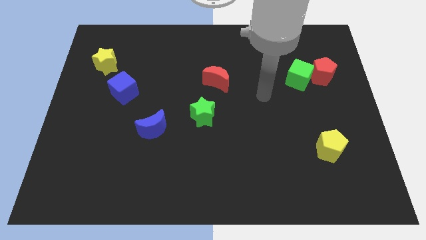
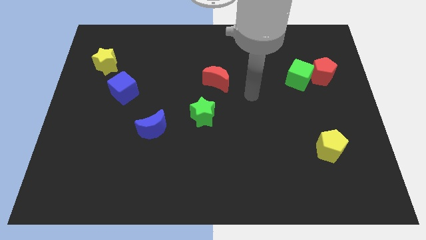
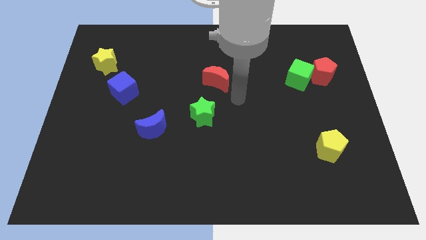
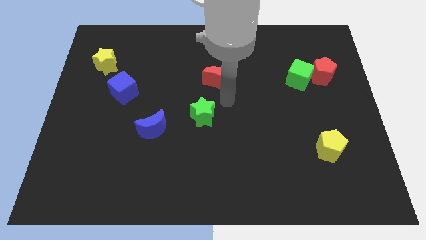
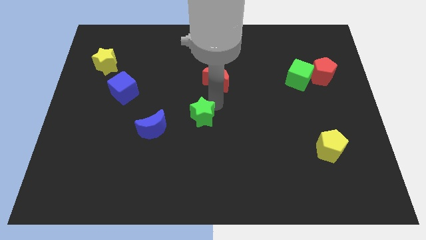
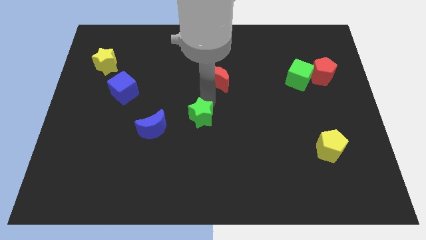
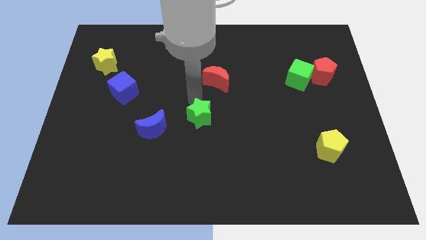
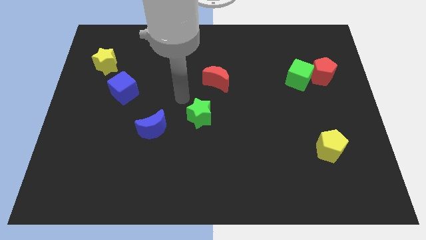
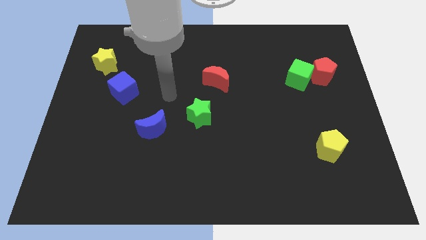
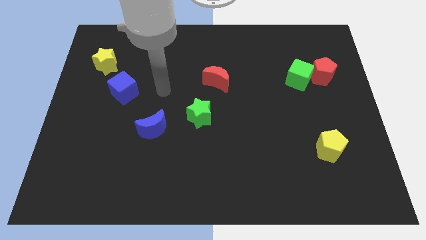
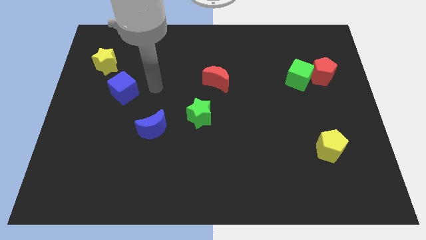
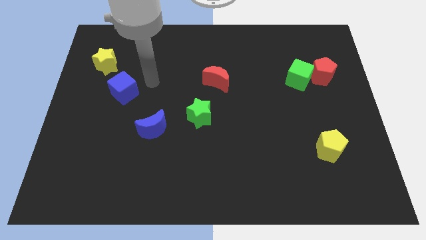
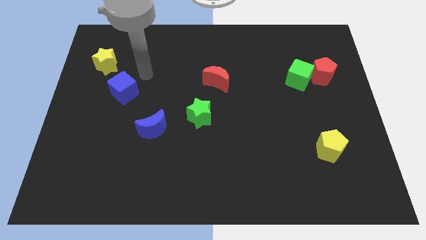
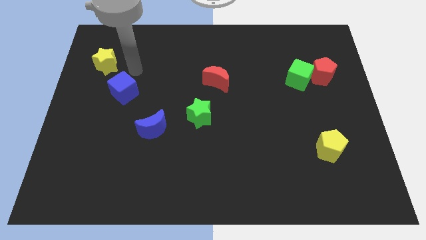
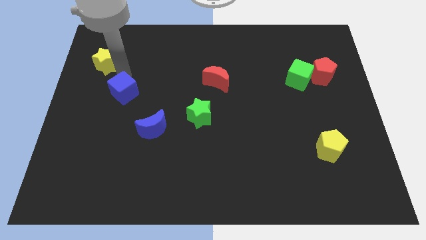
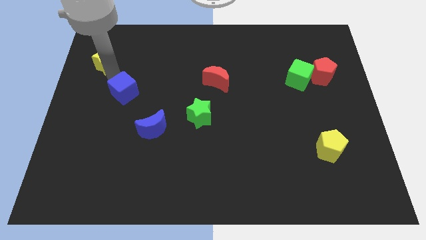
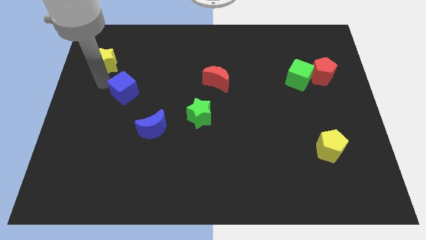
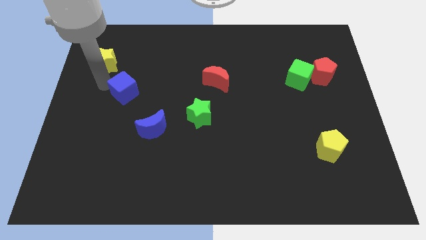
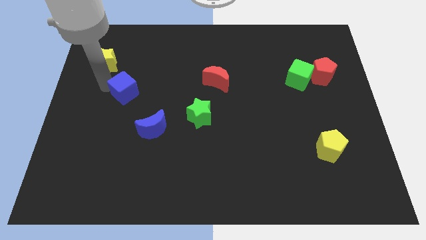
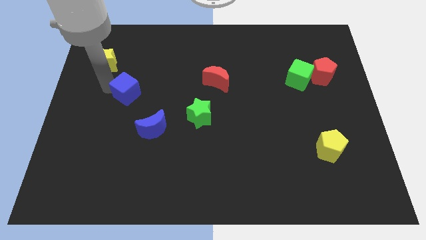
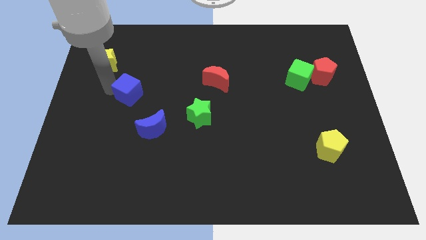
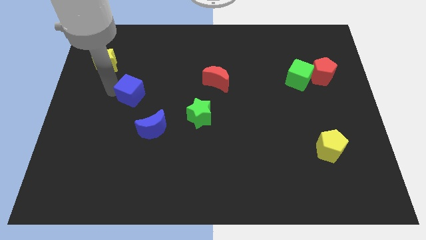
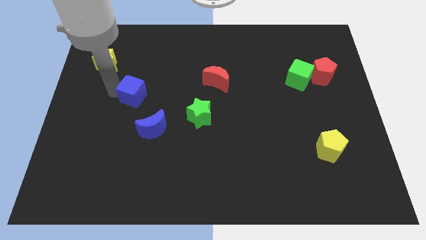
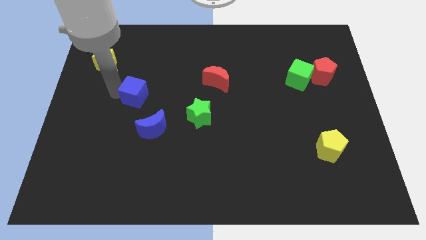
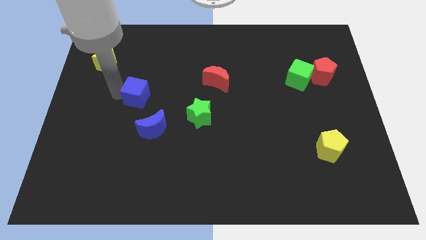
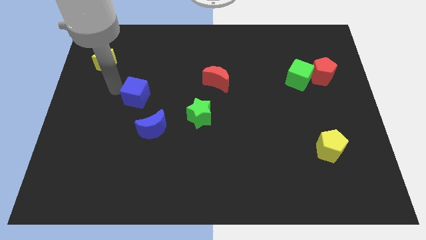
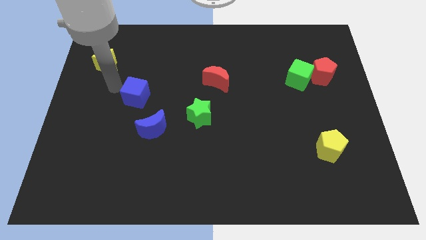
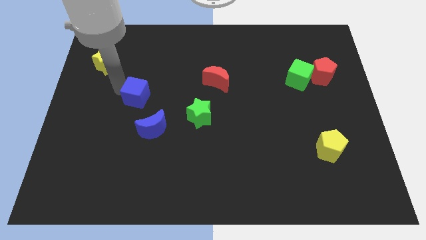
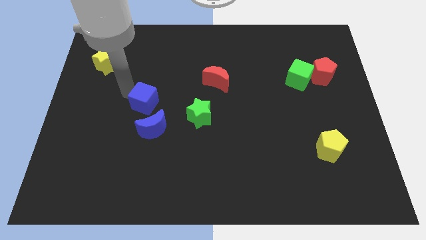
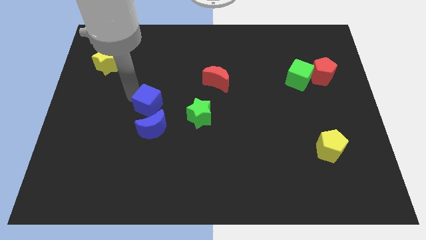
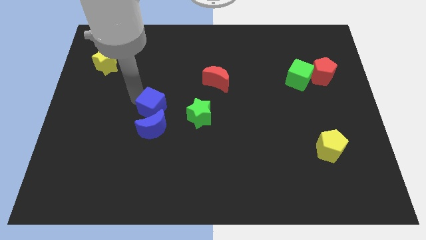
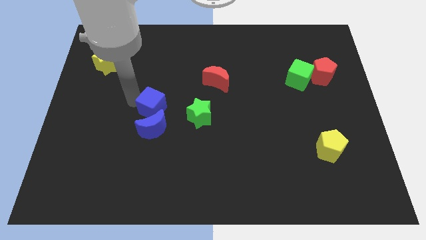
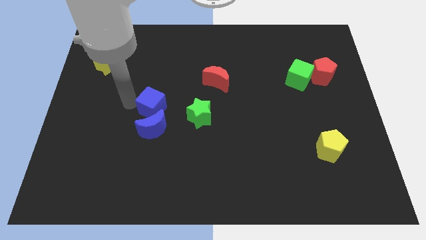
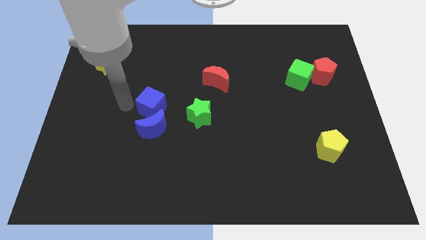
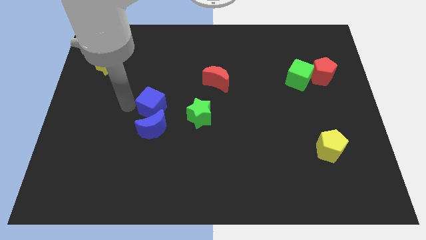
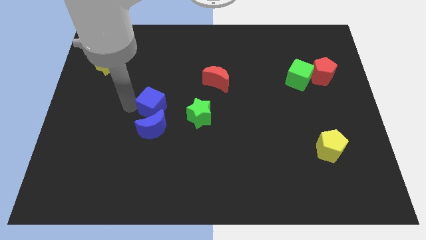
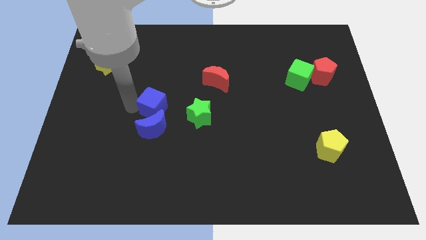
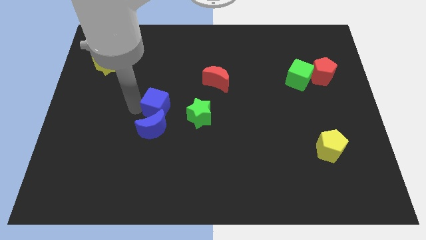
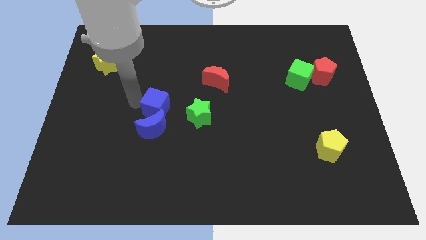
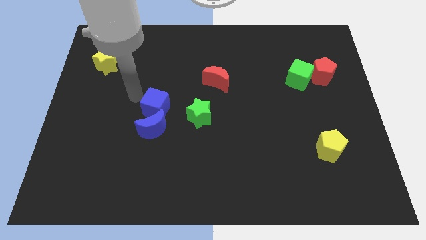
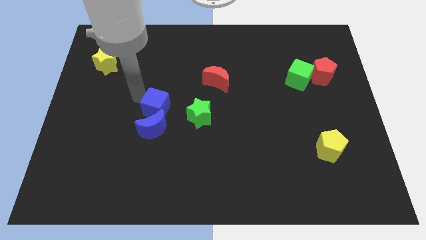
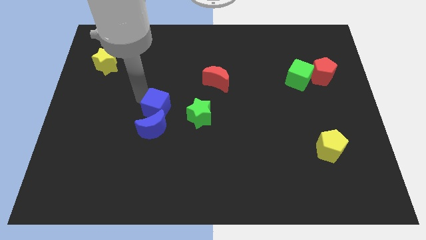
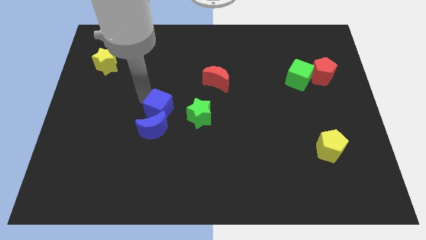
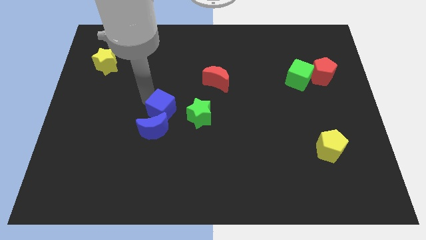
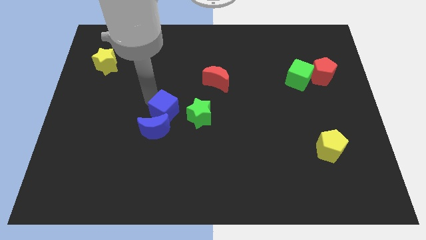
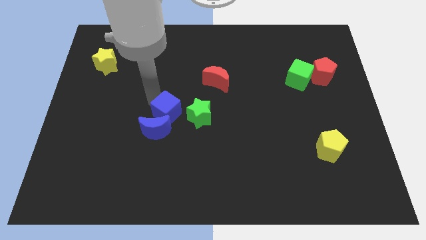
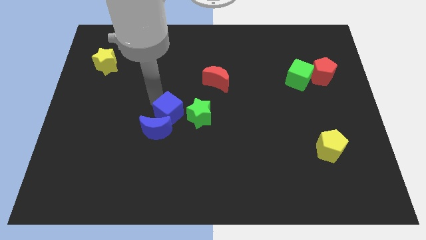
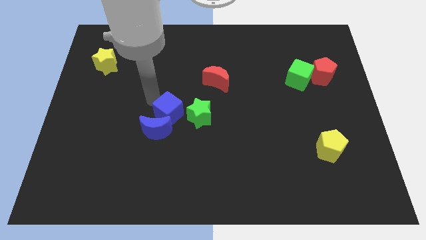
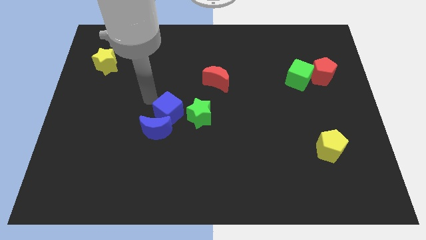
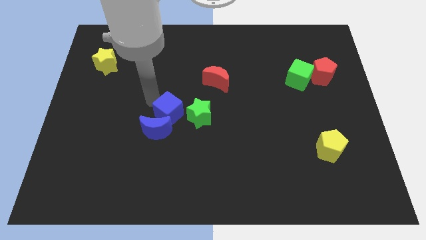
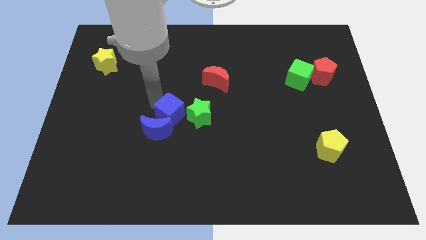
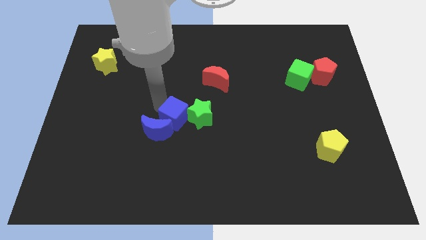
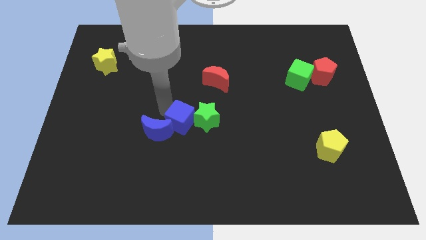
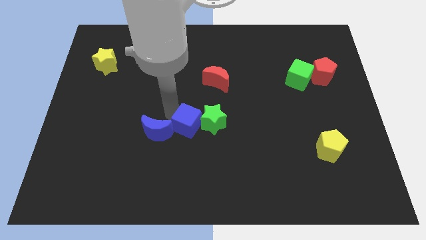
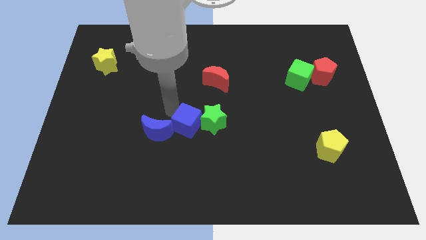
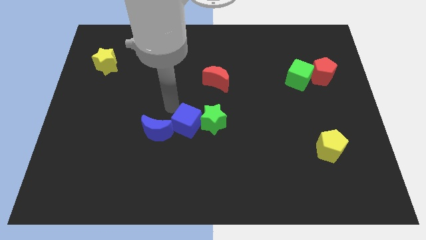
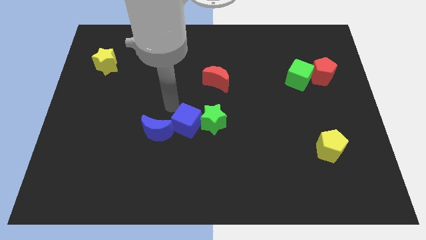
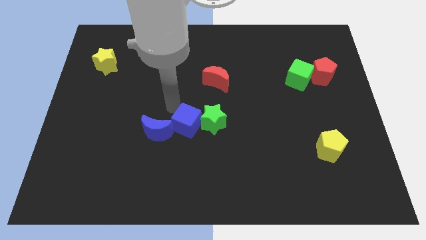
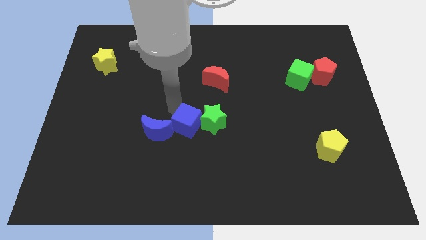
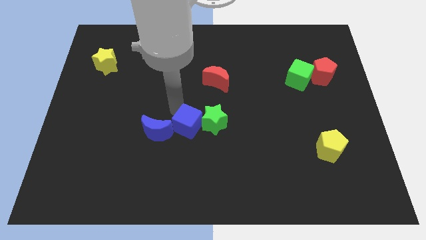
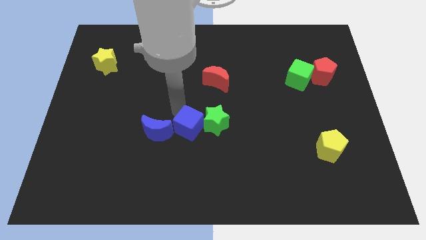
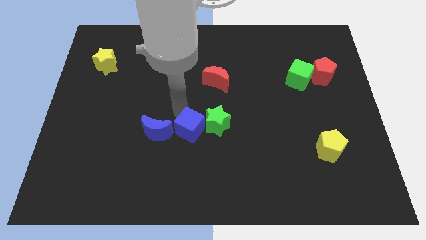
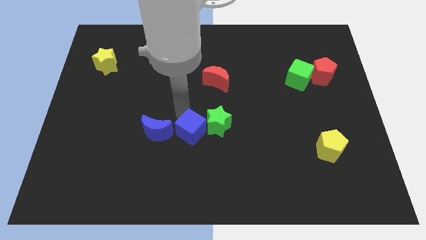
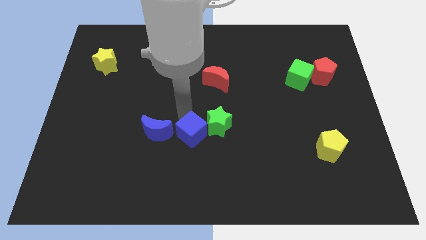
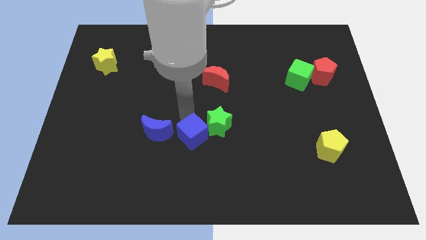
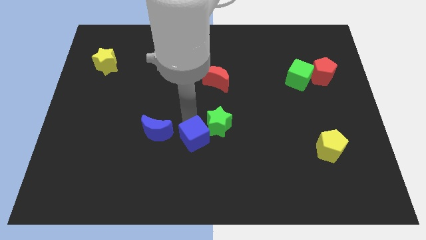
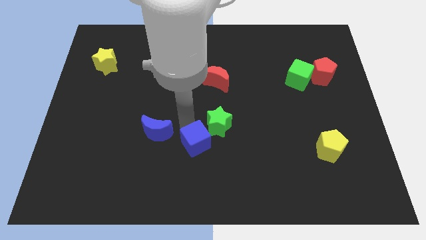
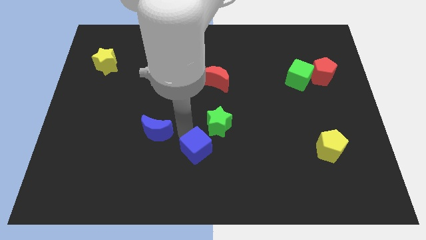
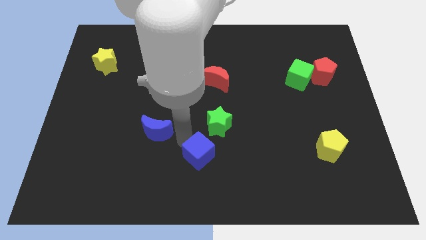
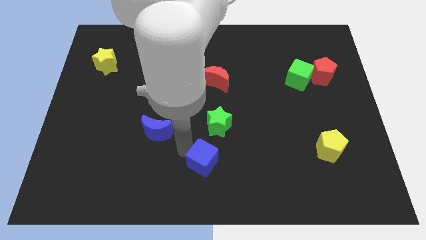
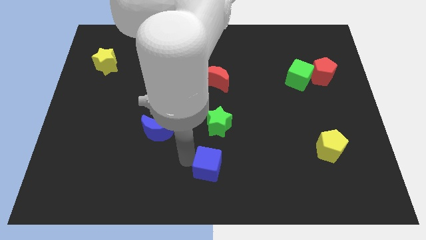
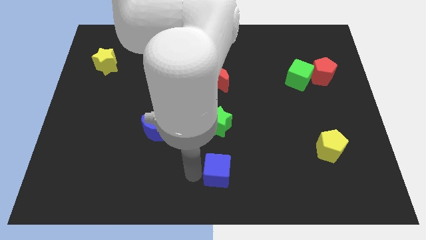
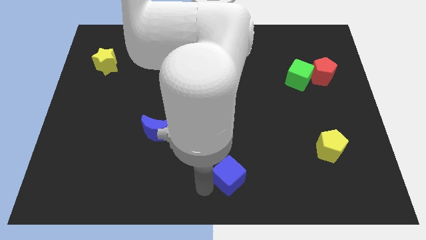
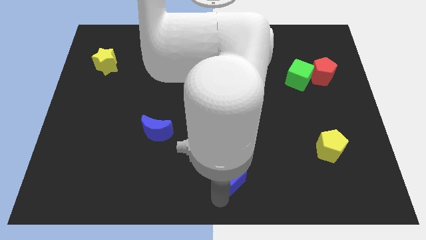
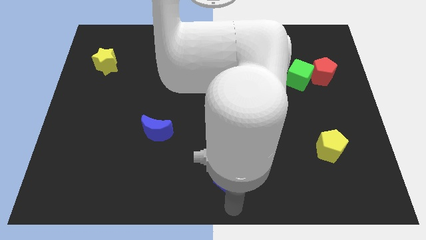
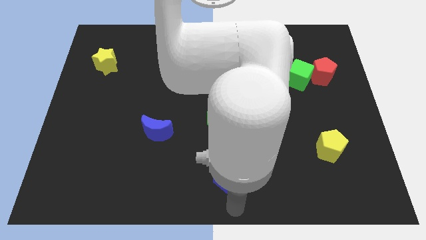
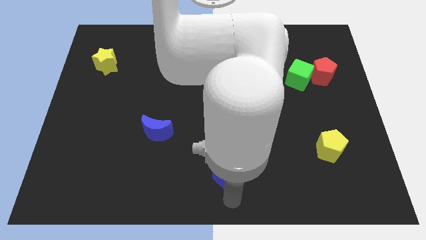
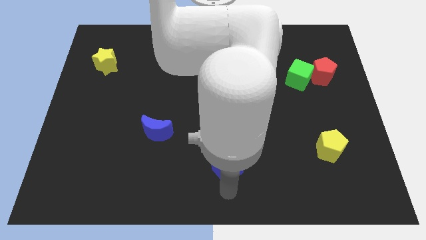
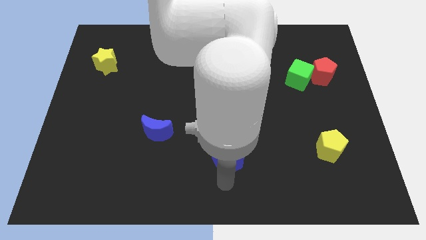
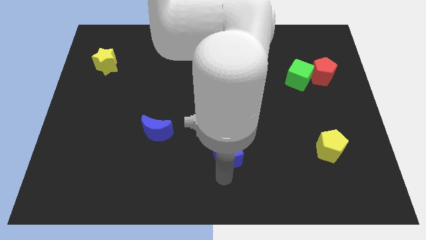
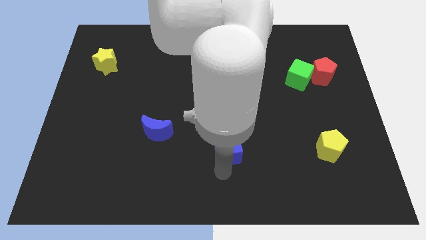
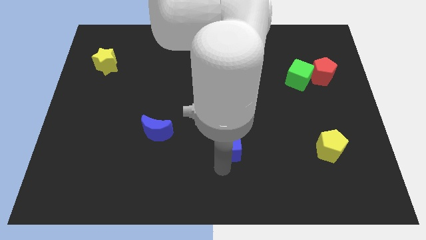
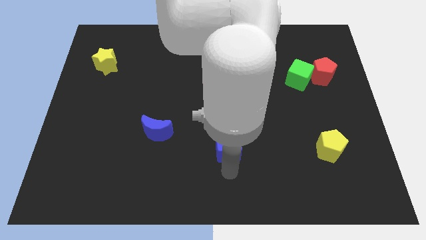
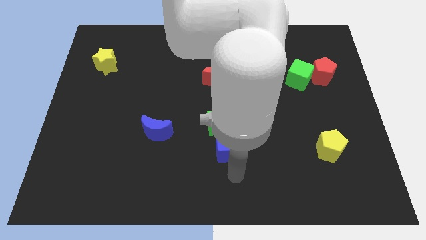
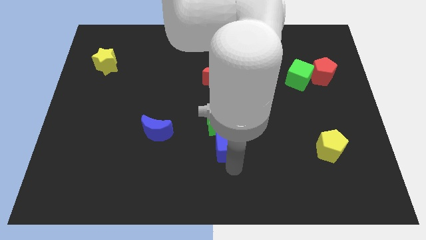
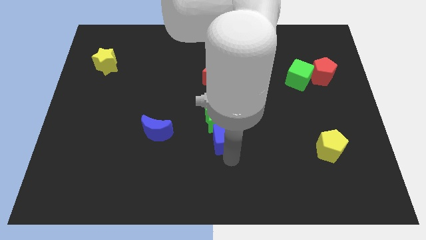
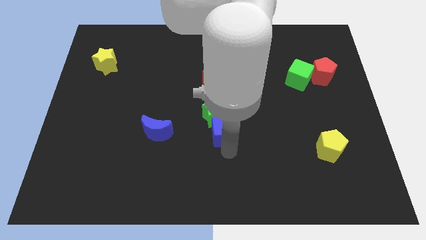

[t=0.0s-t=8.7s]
move the blue cube to the bottom of the red moon
